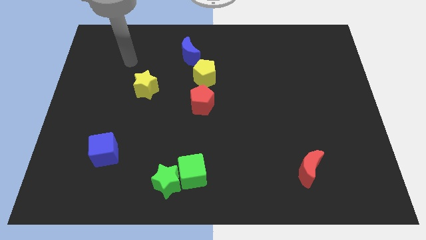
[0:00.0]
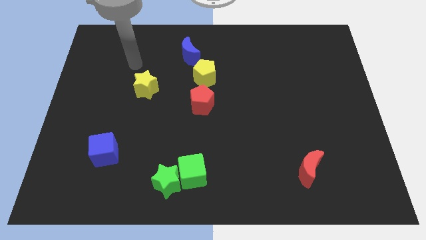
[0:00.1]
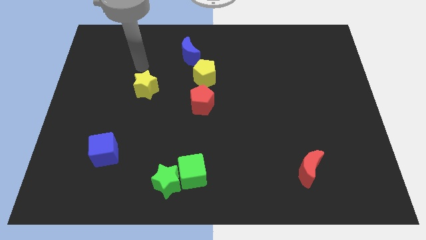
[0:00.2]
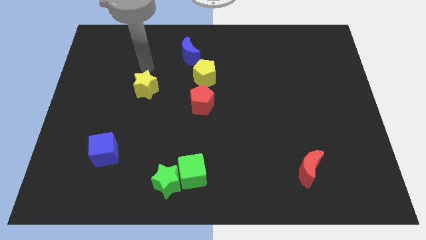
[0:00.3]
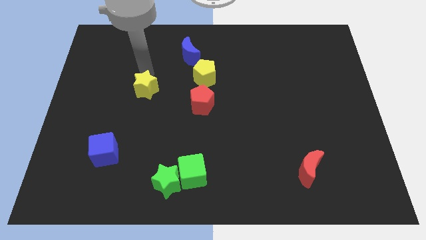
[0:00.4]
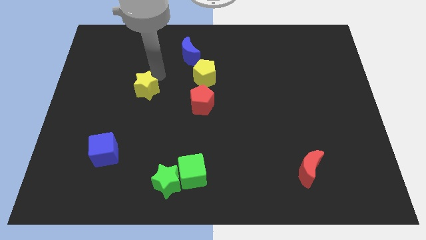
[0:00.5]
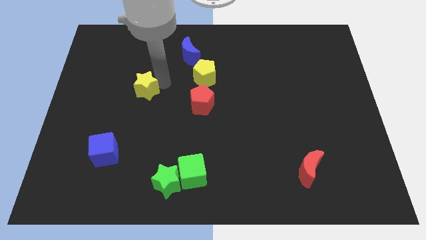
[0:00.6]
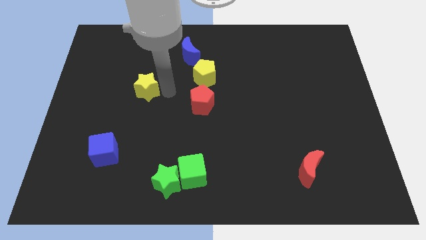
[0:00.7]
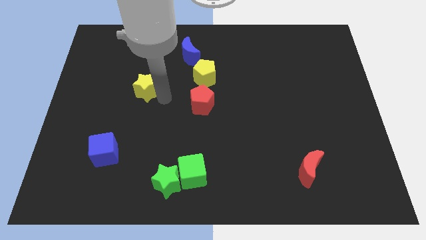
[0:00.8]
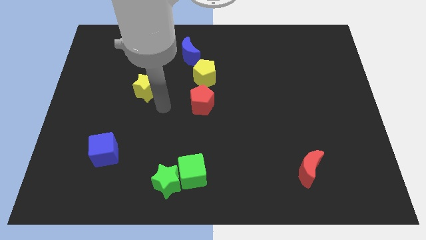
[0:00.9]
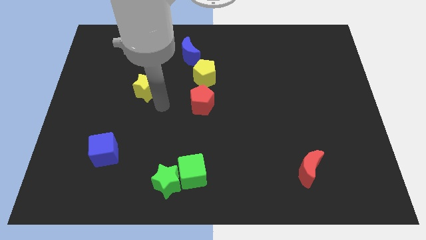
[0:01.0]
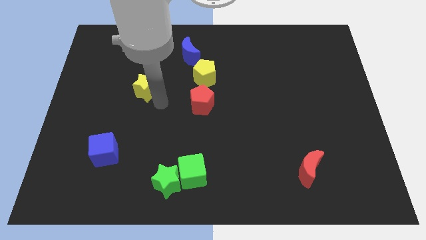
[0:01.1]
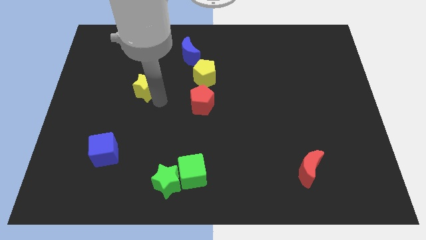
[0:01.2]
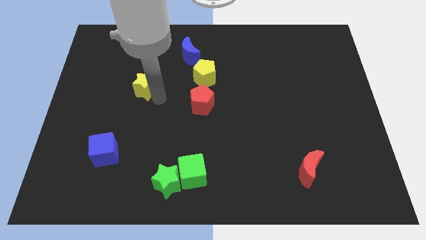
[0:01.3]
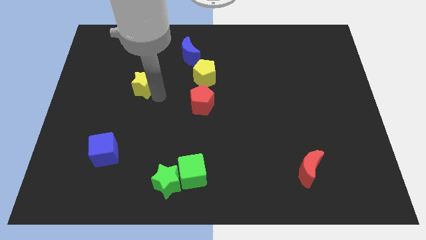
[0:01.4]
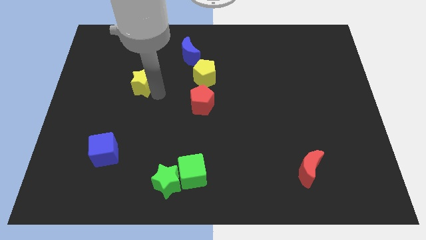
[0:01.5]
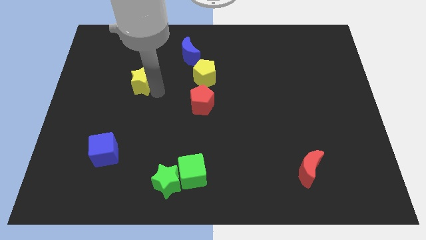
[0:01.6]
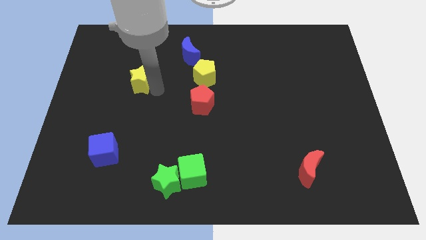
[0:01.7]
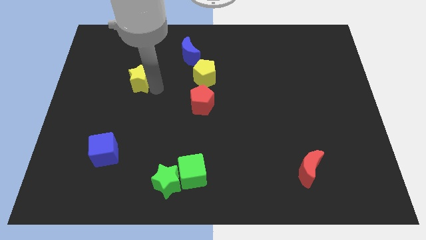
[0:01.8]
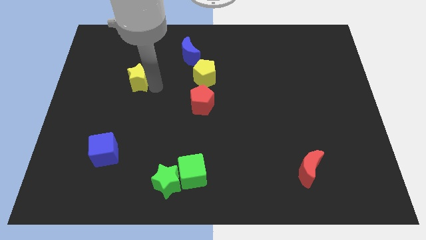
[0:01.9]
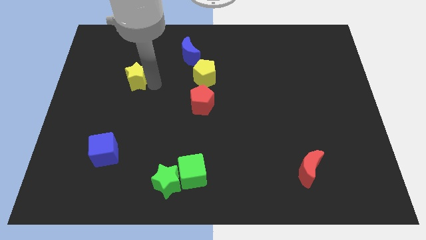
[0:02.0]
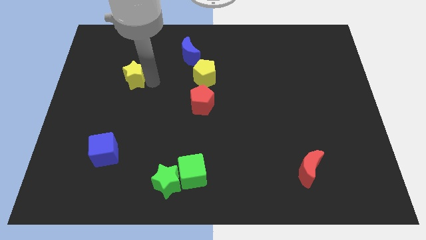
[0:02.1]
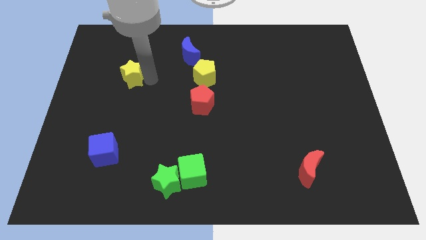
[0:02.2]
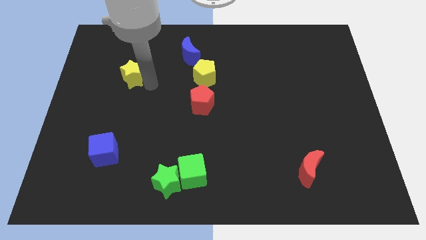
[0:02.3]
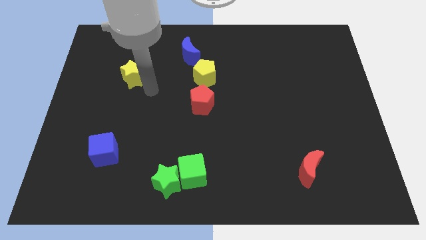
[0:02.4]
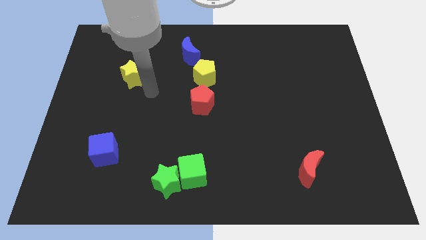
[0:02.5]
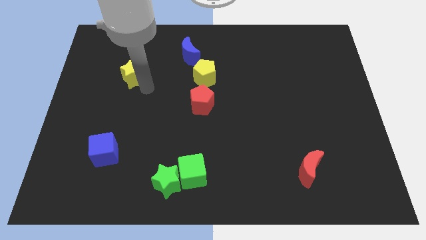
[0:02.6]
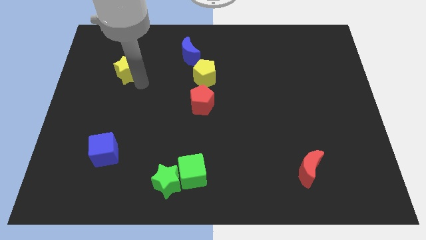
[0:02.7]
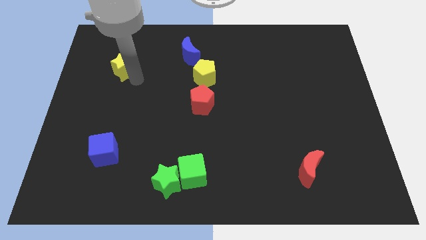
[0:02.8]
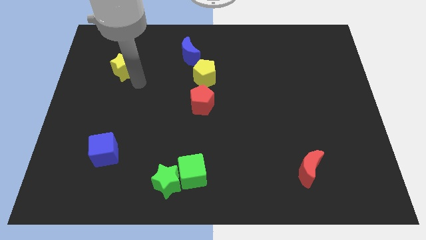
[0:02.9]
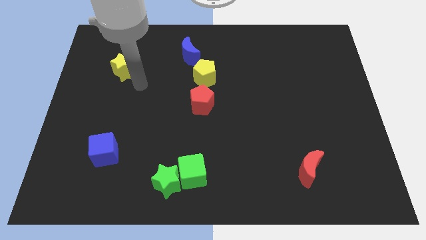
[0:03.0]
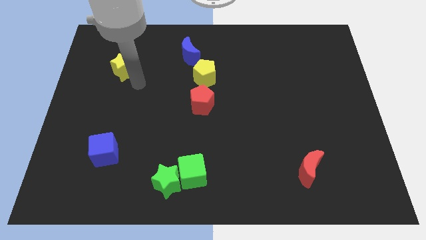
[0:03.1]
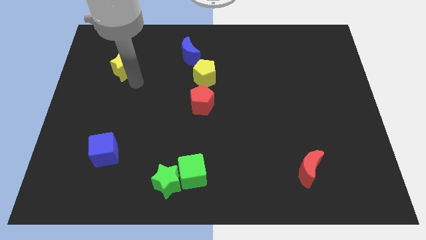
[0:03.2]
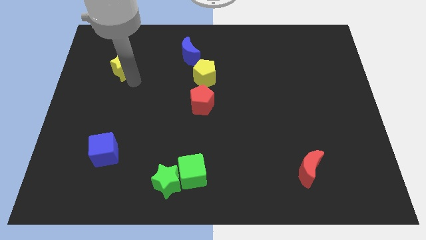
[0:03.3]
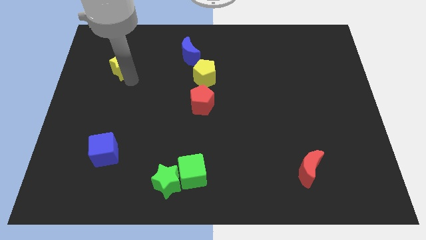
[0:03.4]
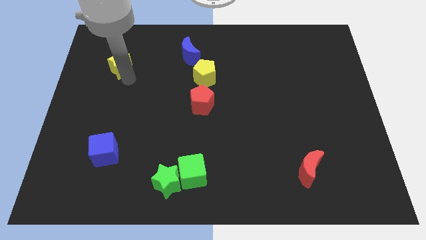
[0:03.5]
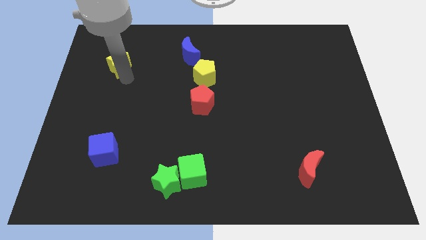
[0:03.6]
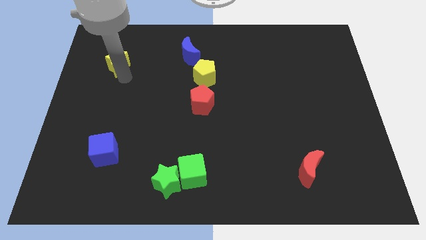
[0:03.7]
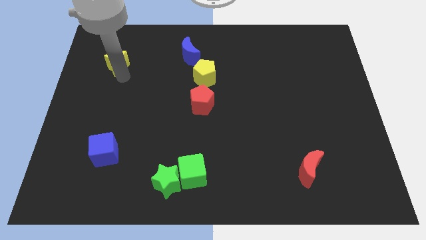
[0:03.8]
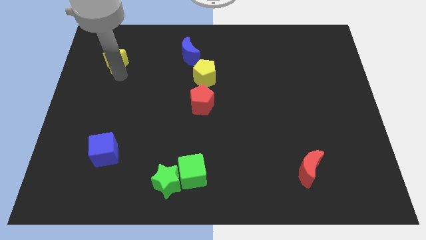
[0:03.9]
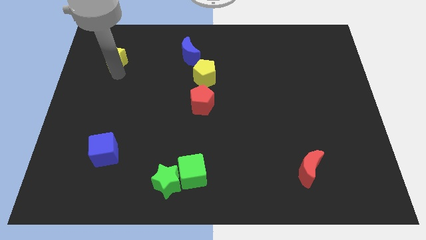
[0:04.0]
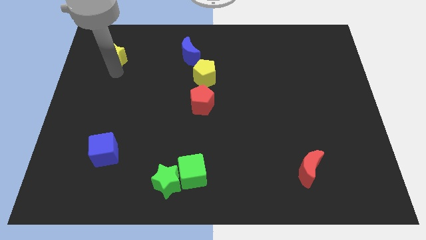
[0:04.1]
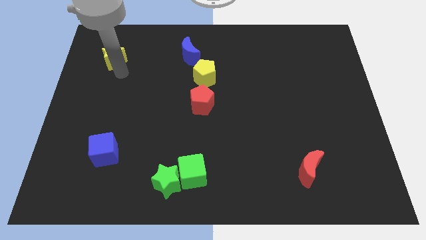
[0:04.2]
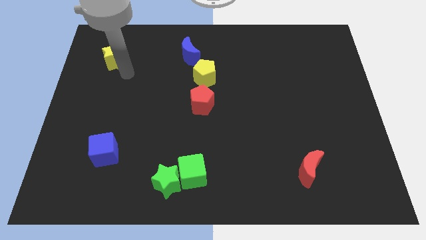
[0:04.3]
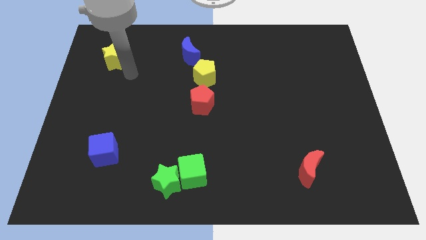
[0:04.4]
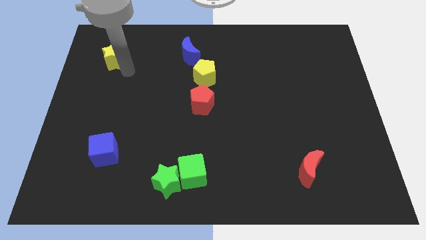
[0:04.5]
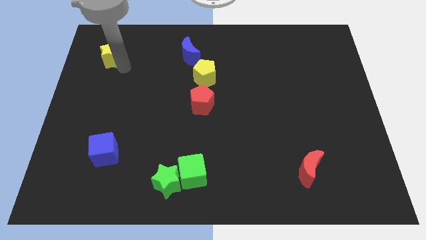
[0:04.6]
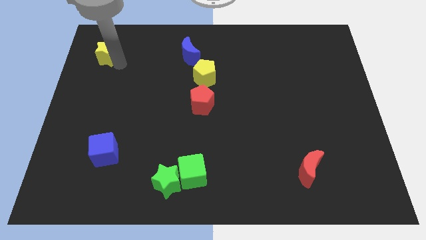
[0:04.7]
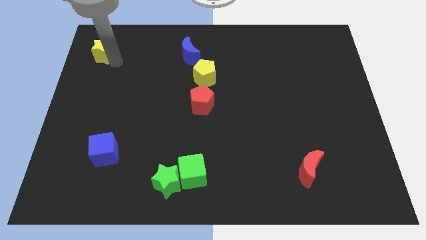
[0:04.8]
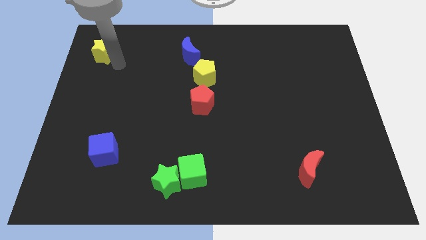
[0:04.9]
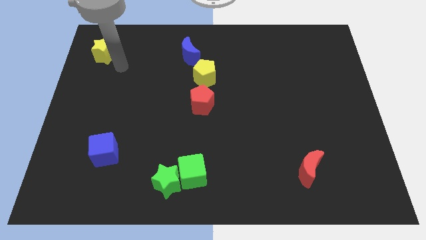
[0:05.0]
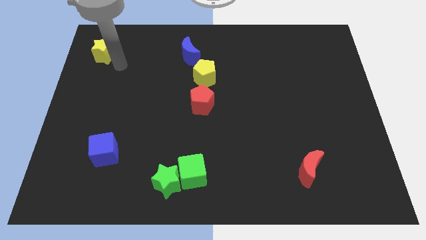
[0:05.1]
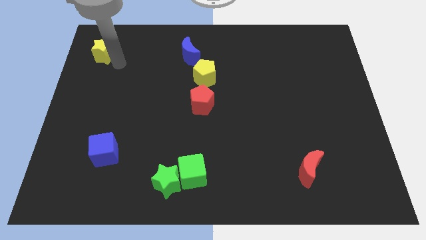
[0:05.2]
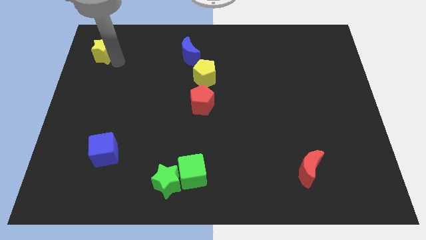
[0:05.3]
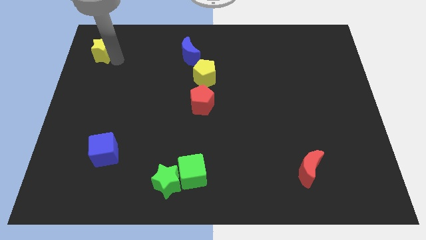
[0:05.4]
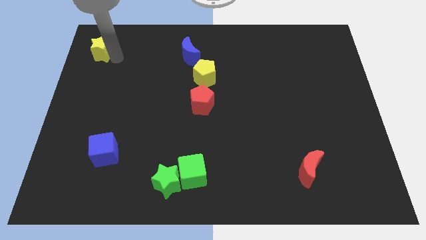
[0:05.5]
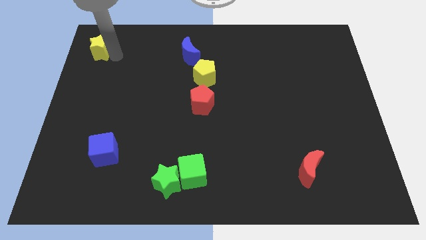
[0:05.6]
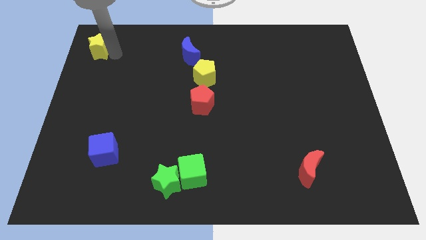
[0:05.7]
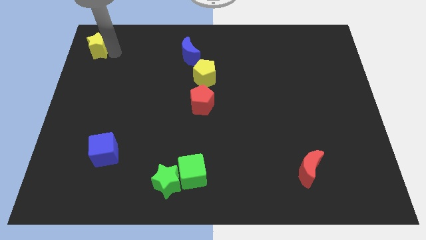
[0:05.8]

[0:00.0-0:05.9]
slide the yellow star to the top left
